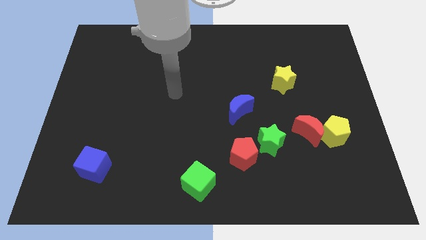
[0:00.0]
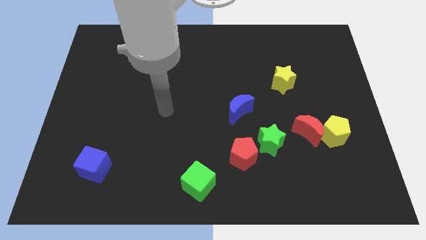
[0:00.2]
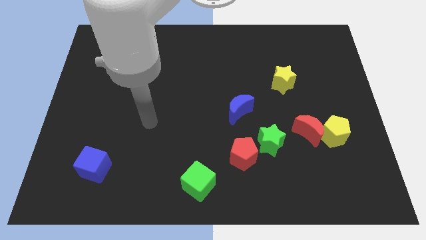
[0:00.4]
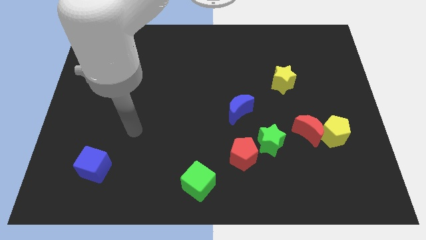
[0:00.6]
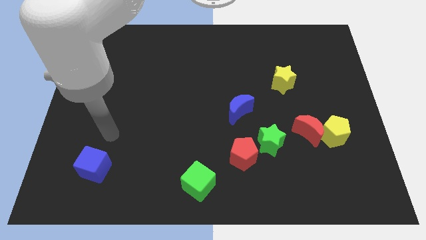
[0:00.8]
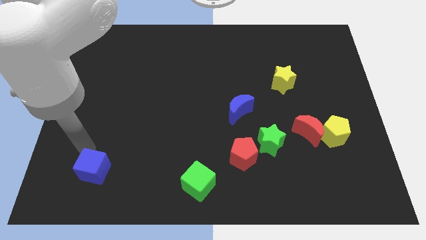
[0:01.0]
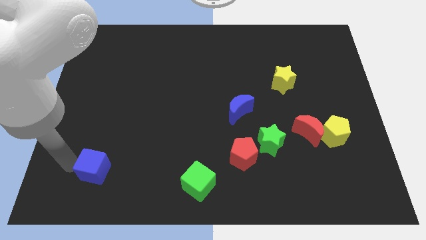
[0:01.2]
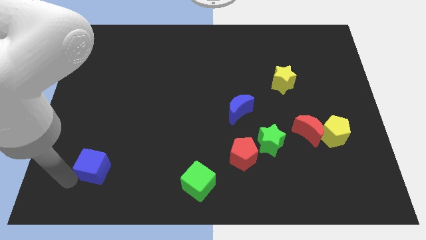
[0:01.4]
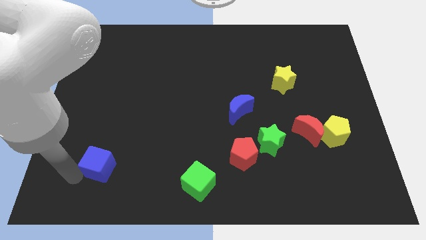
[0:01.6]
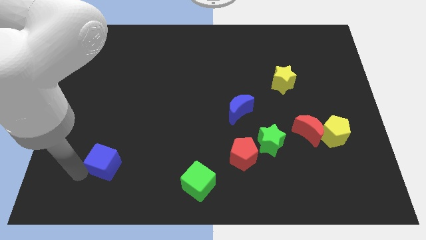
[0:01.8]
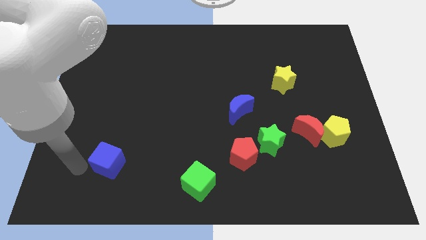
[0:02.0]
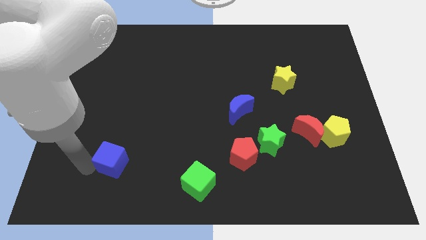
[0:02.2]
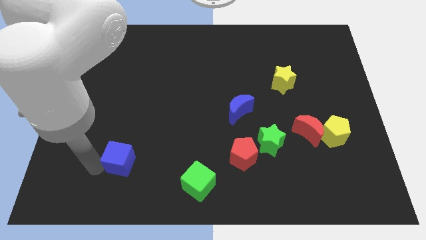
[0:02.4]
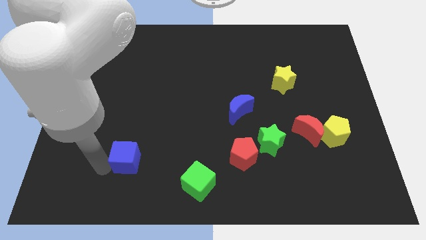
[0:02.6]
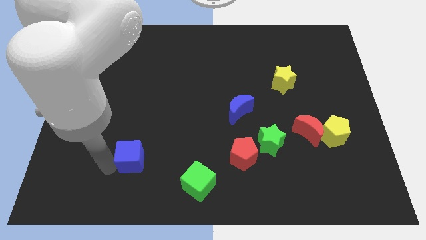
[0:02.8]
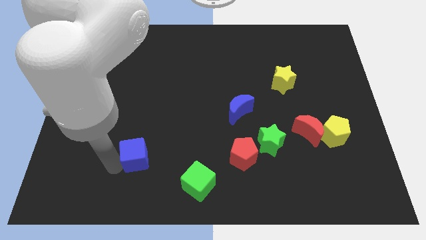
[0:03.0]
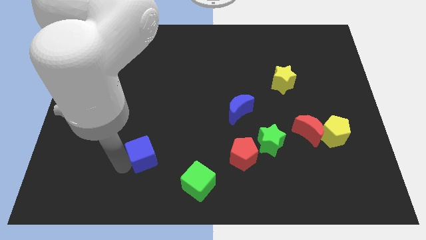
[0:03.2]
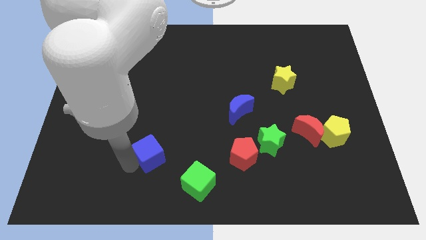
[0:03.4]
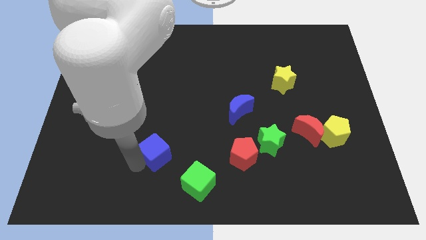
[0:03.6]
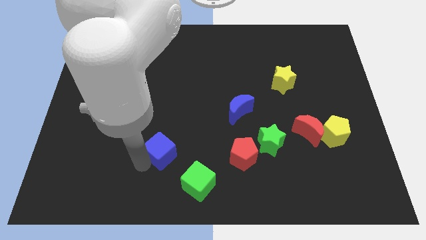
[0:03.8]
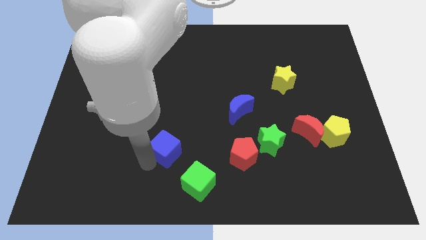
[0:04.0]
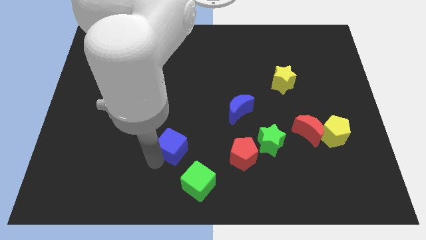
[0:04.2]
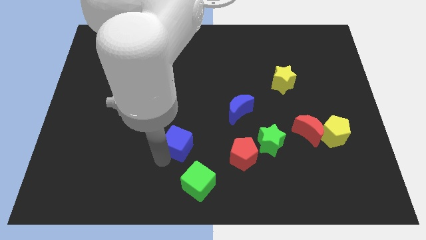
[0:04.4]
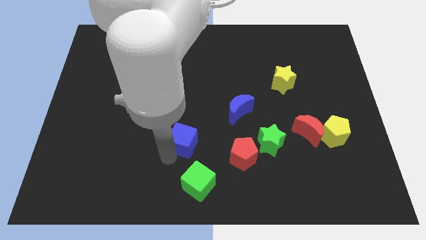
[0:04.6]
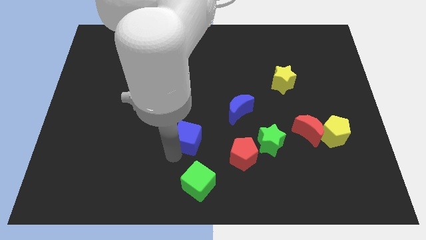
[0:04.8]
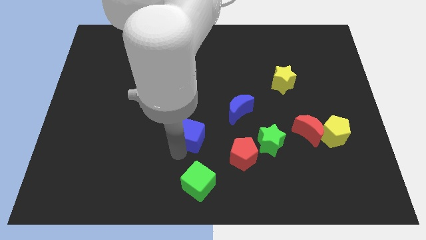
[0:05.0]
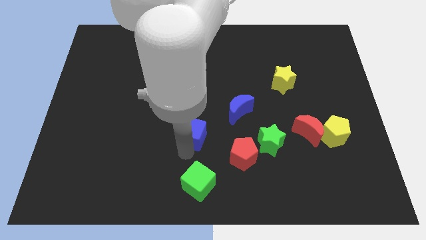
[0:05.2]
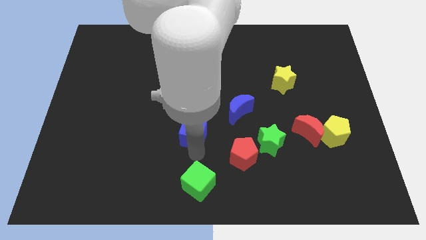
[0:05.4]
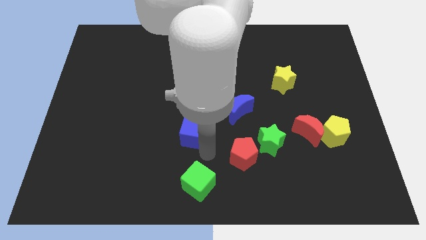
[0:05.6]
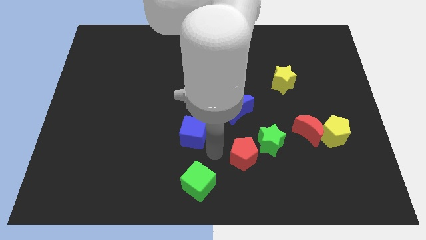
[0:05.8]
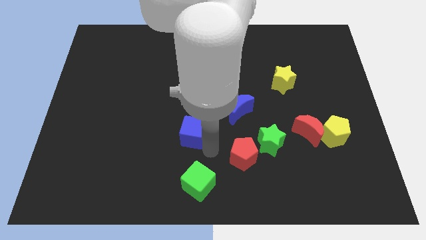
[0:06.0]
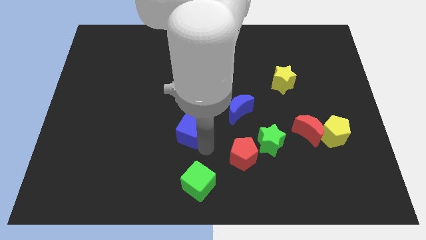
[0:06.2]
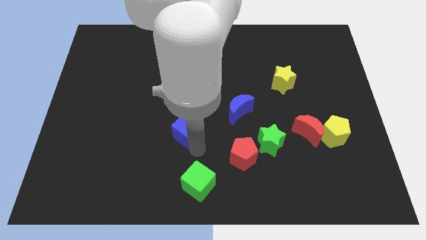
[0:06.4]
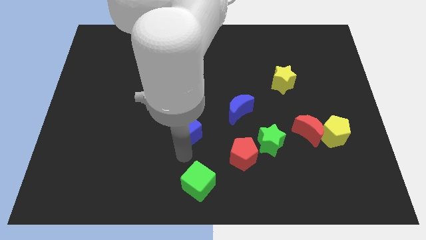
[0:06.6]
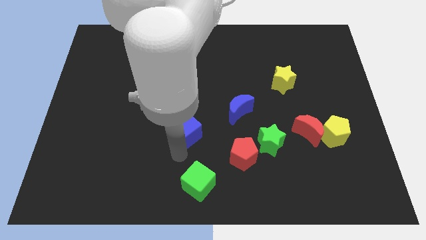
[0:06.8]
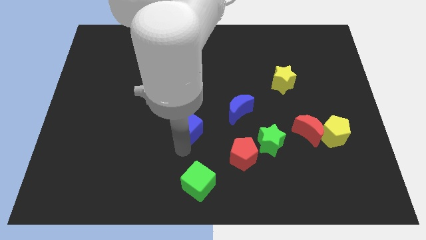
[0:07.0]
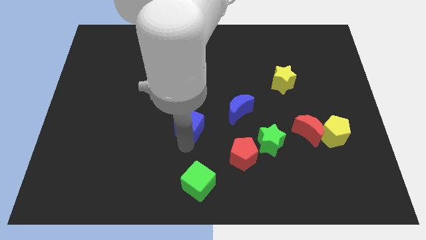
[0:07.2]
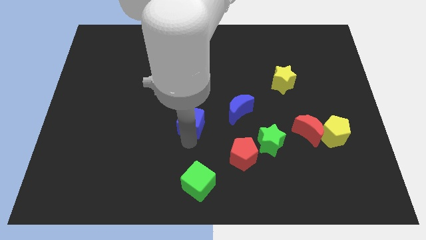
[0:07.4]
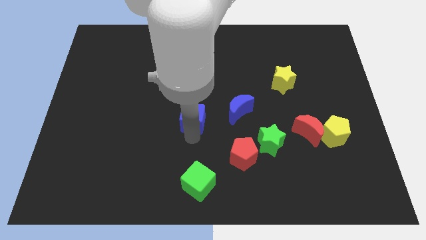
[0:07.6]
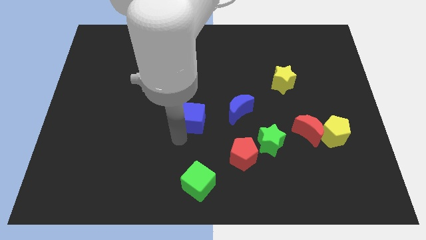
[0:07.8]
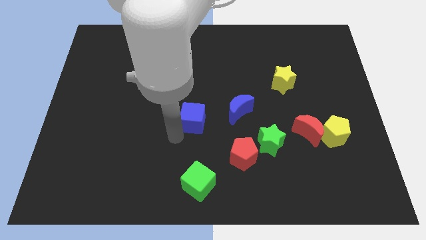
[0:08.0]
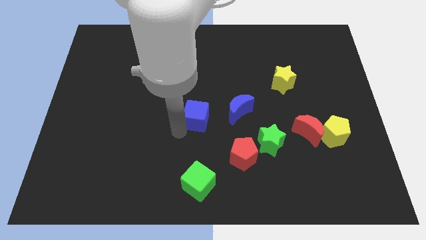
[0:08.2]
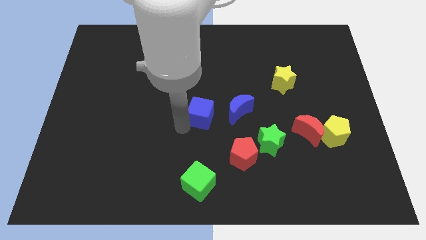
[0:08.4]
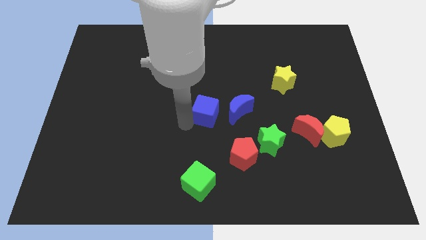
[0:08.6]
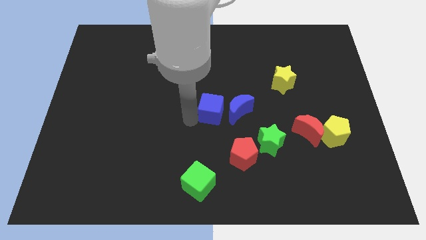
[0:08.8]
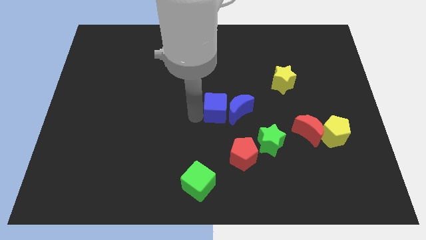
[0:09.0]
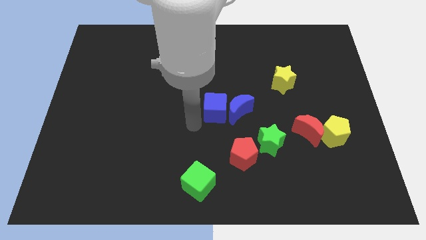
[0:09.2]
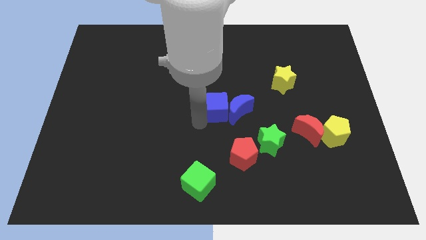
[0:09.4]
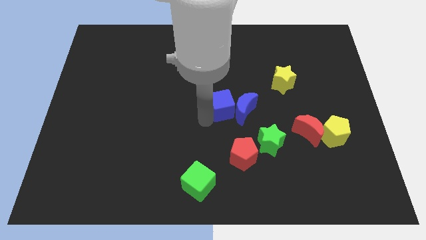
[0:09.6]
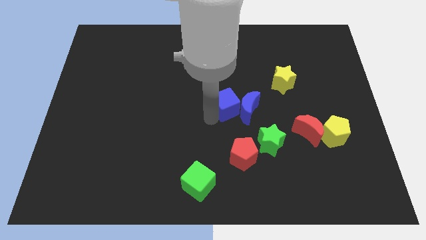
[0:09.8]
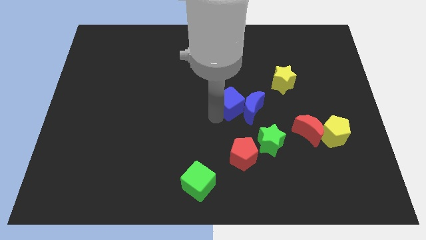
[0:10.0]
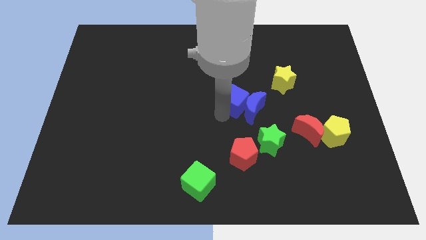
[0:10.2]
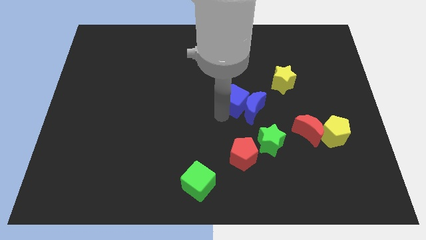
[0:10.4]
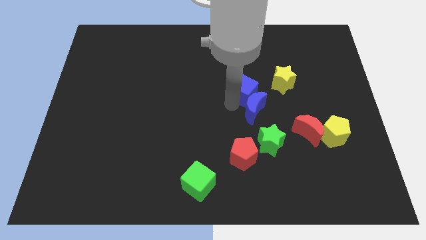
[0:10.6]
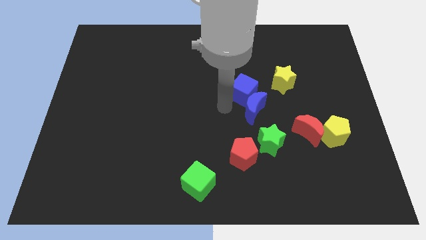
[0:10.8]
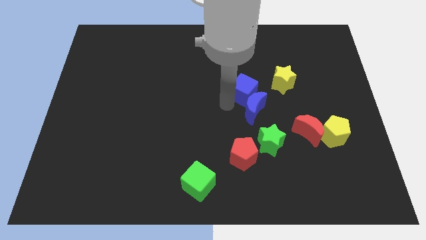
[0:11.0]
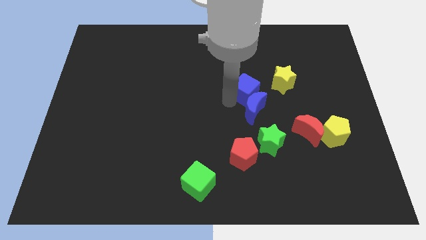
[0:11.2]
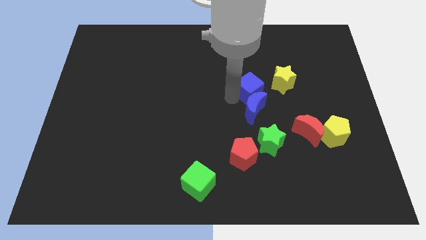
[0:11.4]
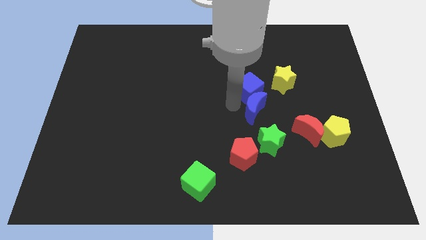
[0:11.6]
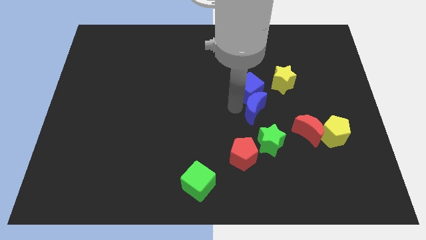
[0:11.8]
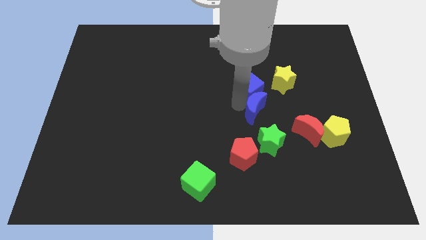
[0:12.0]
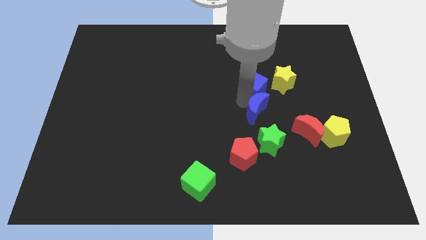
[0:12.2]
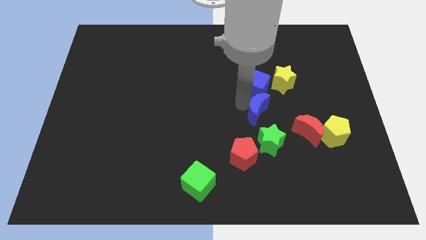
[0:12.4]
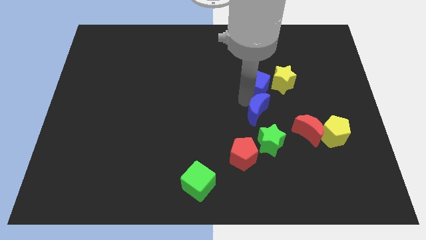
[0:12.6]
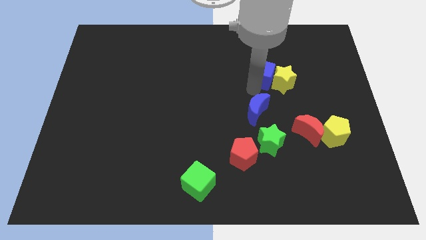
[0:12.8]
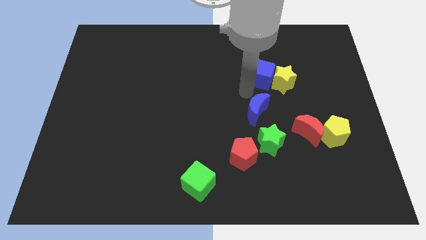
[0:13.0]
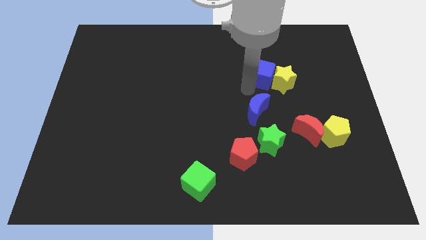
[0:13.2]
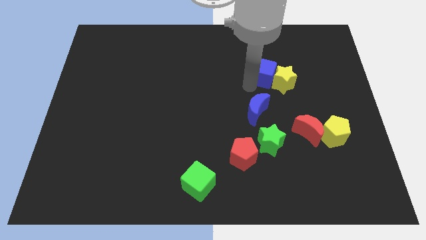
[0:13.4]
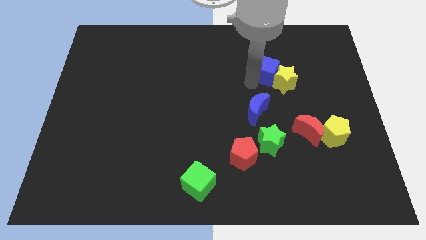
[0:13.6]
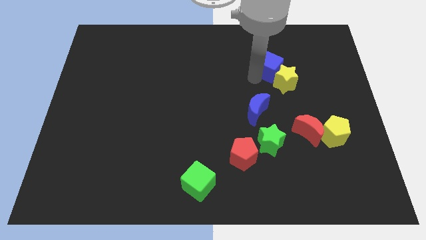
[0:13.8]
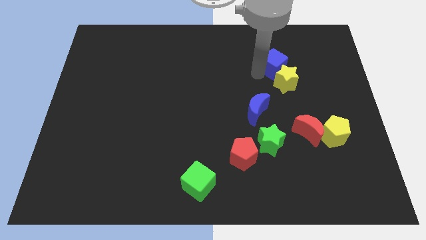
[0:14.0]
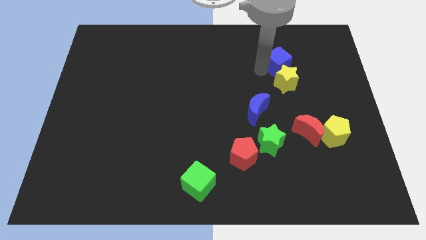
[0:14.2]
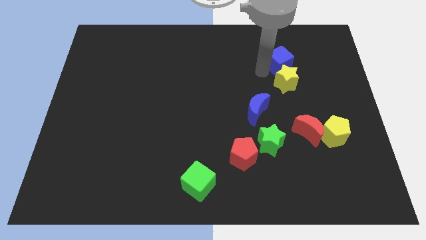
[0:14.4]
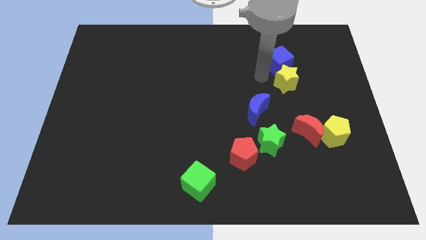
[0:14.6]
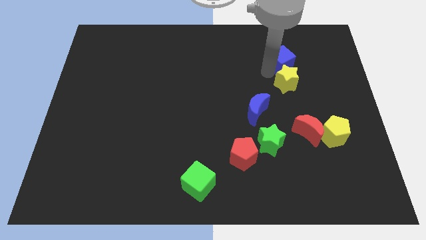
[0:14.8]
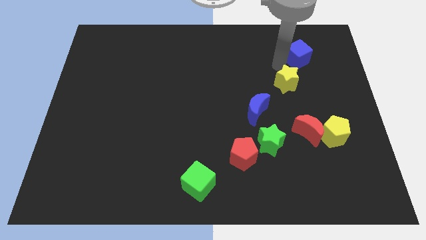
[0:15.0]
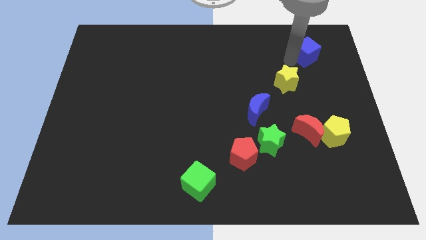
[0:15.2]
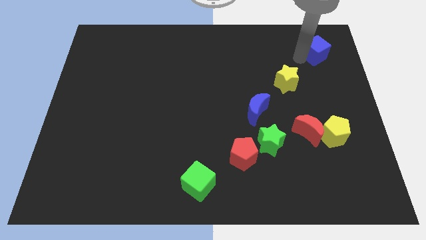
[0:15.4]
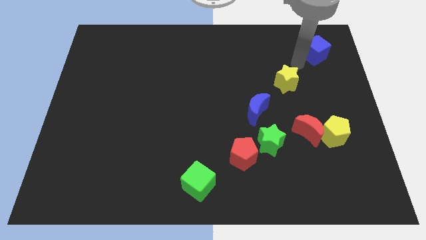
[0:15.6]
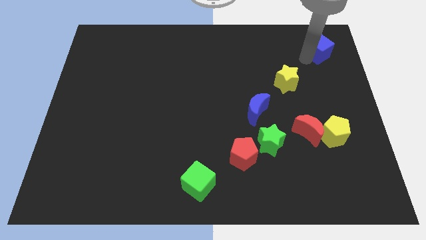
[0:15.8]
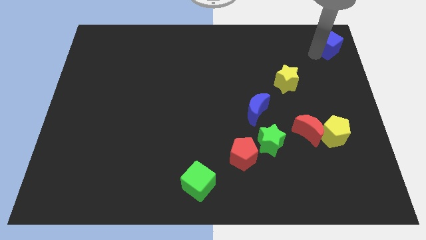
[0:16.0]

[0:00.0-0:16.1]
slide the blue cube to the top right
